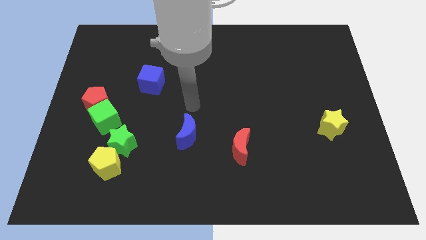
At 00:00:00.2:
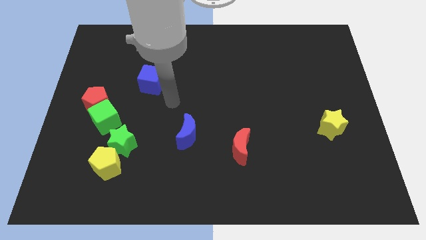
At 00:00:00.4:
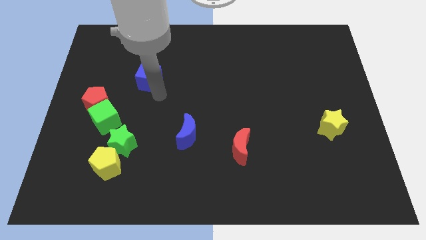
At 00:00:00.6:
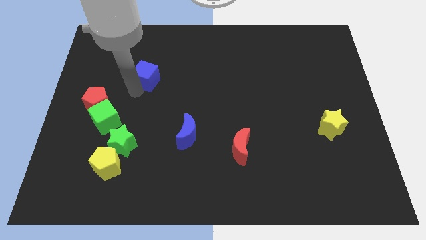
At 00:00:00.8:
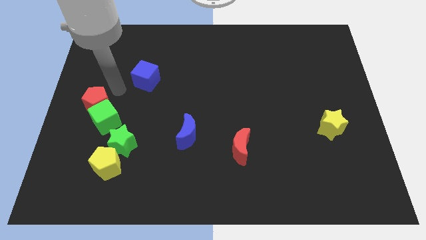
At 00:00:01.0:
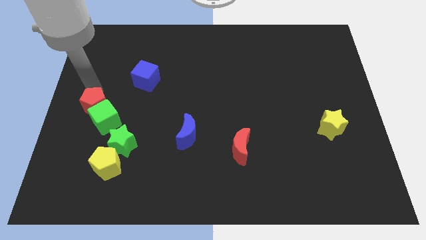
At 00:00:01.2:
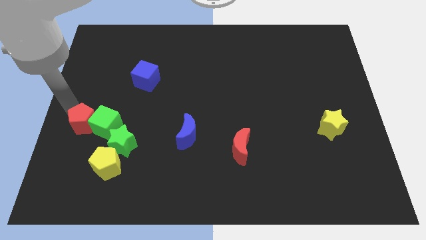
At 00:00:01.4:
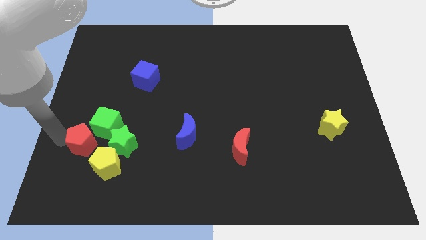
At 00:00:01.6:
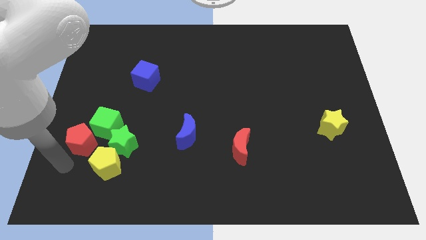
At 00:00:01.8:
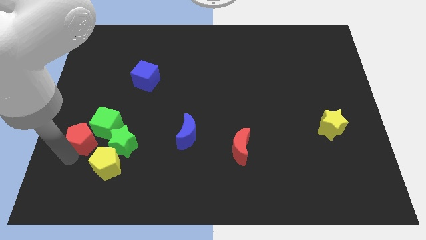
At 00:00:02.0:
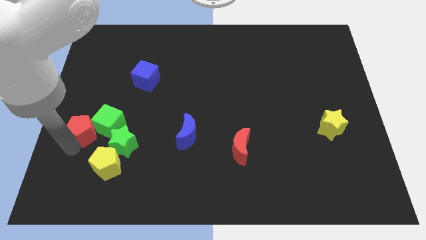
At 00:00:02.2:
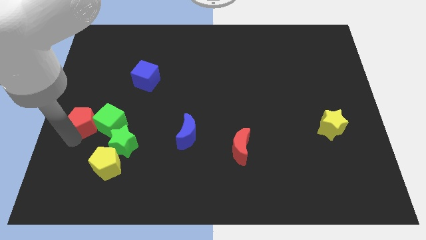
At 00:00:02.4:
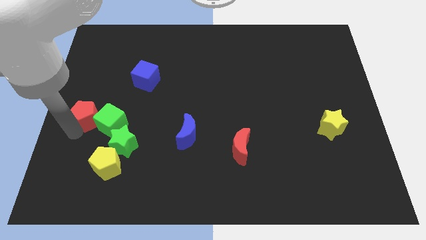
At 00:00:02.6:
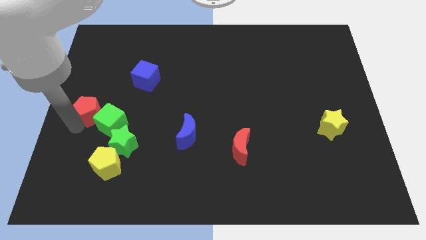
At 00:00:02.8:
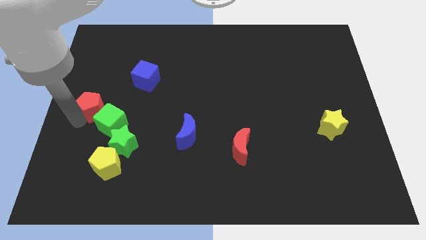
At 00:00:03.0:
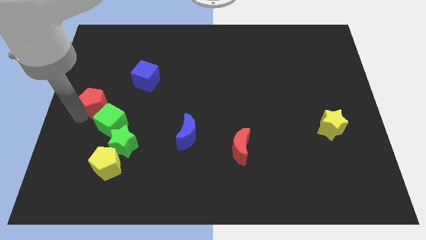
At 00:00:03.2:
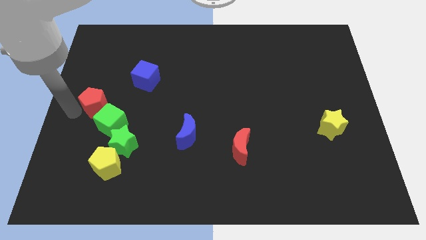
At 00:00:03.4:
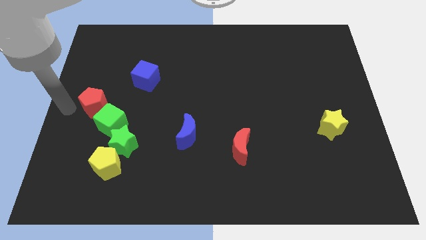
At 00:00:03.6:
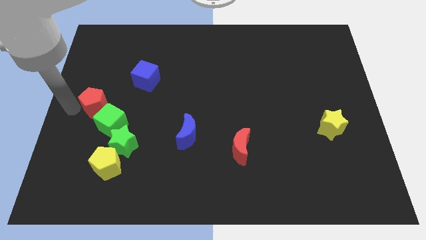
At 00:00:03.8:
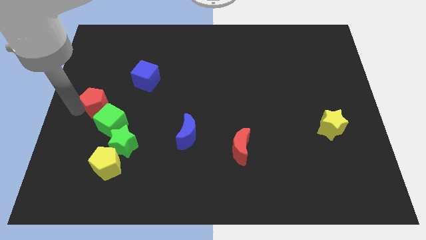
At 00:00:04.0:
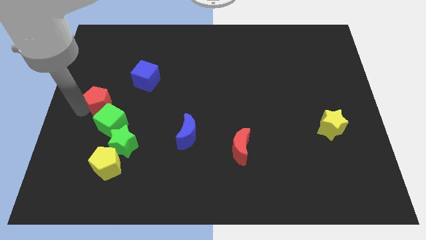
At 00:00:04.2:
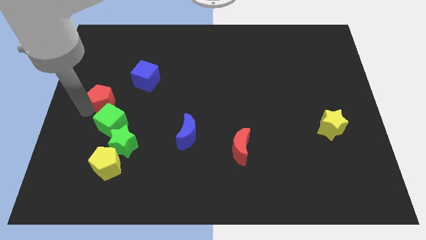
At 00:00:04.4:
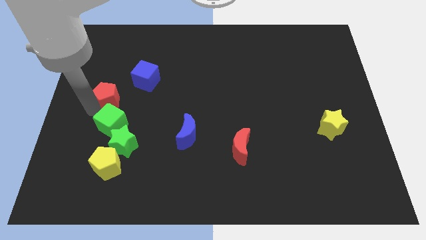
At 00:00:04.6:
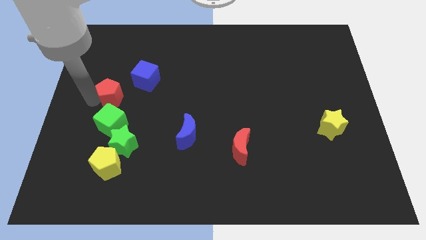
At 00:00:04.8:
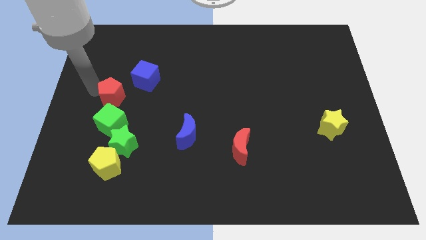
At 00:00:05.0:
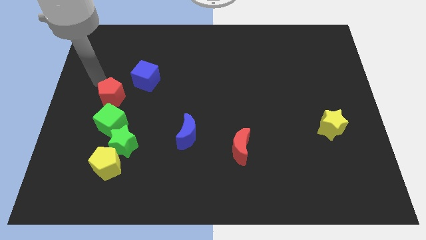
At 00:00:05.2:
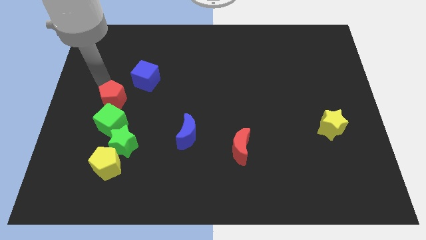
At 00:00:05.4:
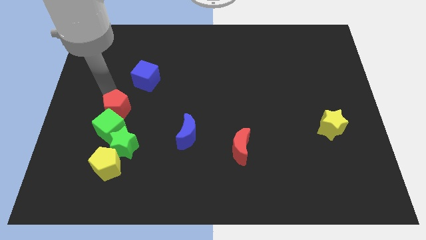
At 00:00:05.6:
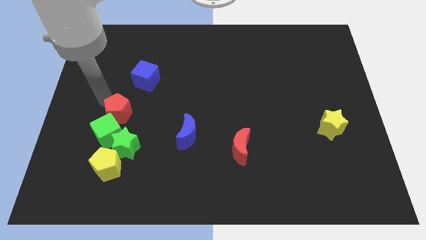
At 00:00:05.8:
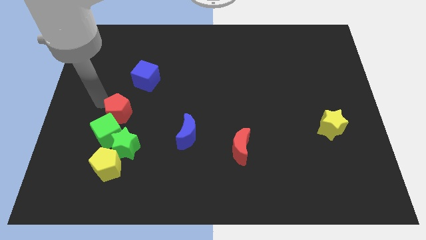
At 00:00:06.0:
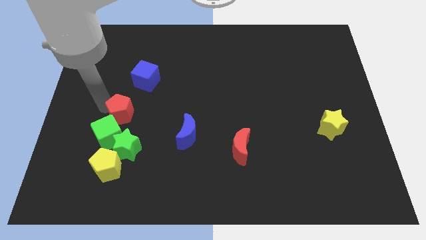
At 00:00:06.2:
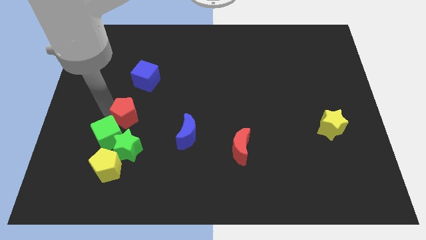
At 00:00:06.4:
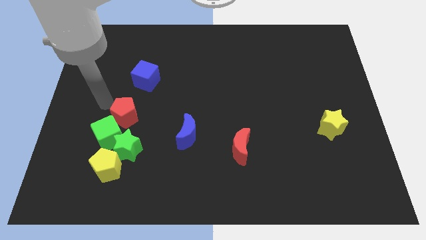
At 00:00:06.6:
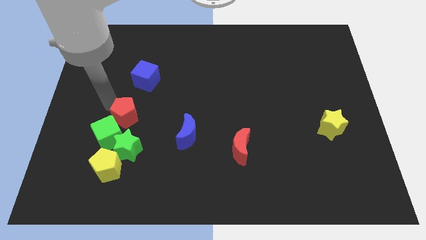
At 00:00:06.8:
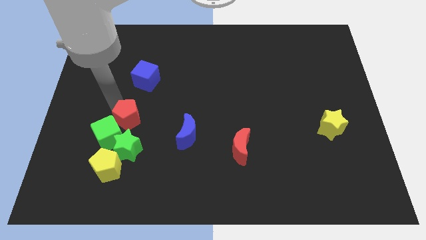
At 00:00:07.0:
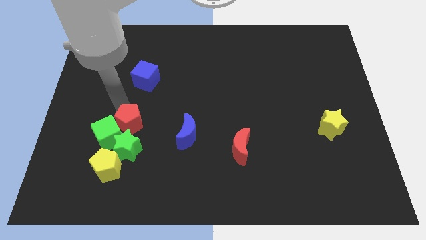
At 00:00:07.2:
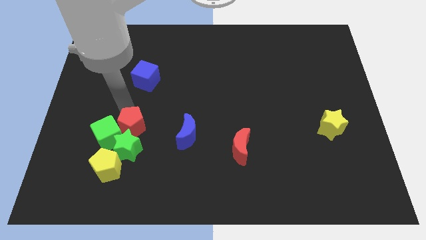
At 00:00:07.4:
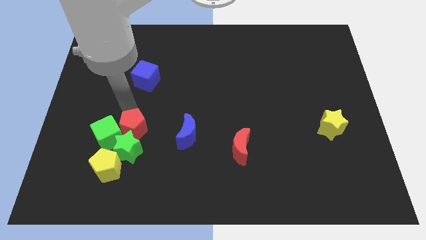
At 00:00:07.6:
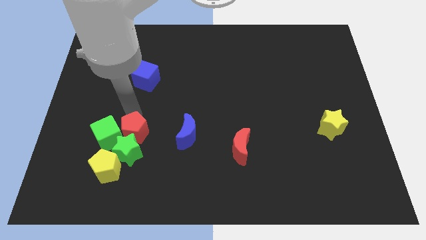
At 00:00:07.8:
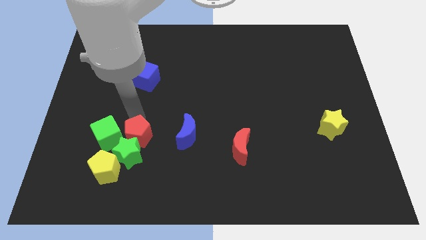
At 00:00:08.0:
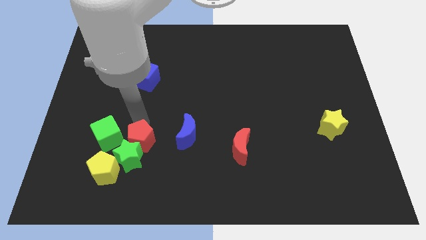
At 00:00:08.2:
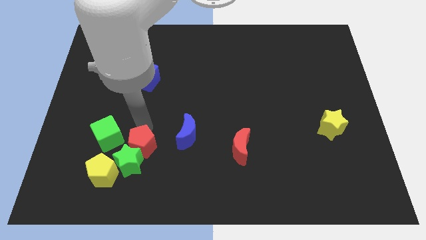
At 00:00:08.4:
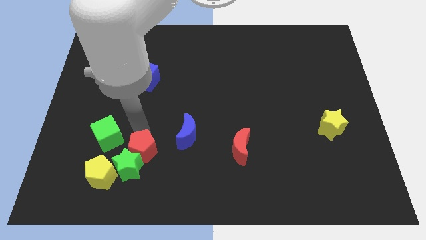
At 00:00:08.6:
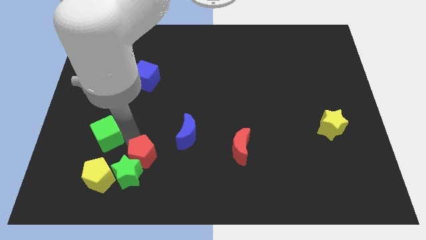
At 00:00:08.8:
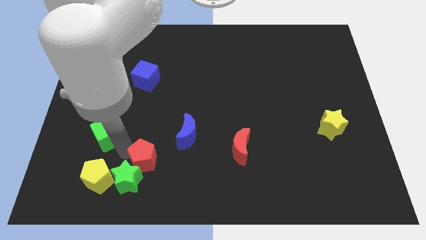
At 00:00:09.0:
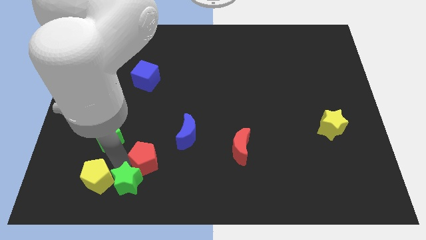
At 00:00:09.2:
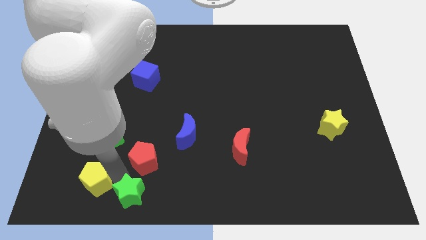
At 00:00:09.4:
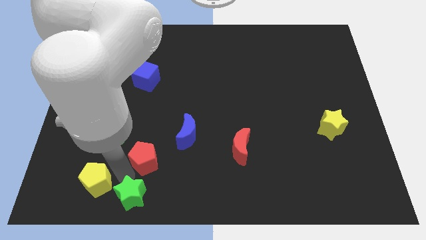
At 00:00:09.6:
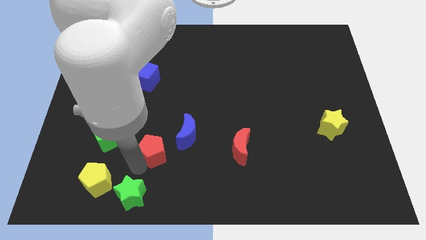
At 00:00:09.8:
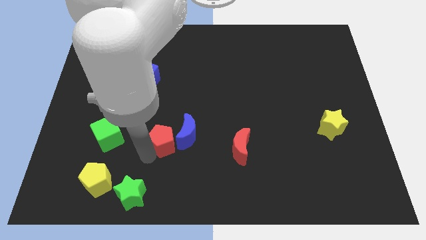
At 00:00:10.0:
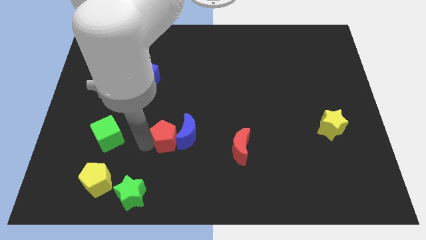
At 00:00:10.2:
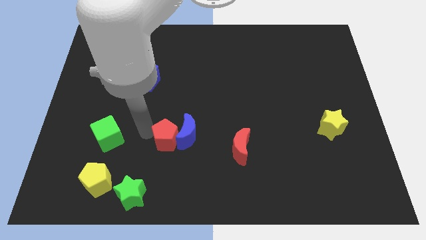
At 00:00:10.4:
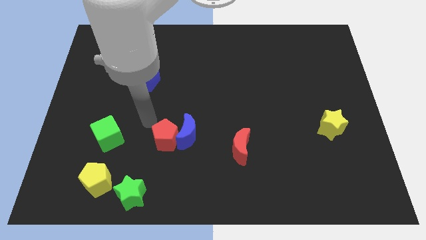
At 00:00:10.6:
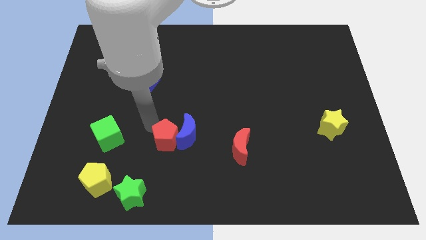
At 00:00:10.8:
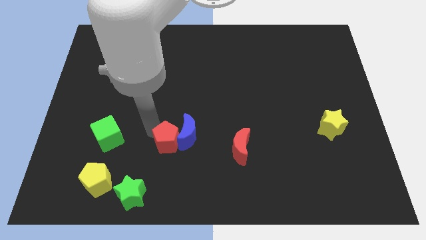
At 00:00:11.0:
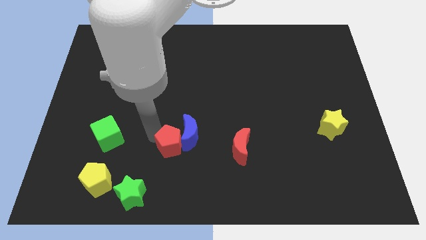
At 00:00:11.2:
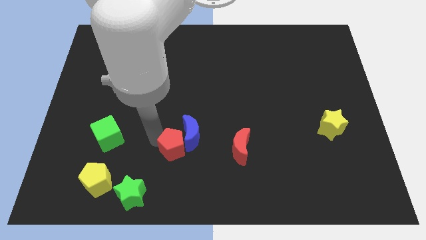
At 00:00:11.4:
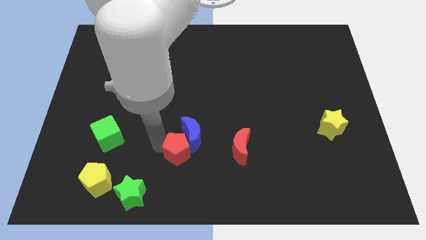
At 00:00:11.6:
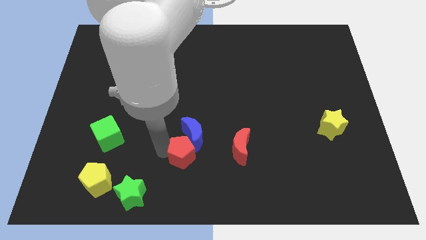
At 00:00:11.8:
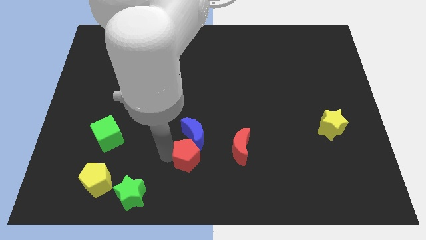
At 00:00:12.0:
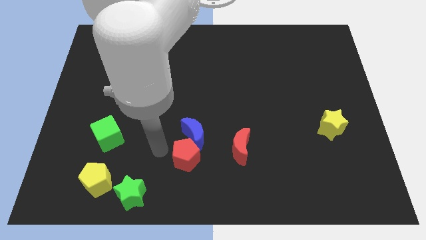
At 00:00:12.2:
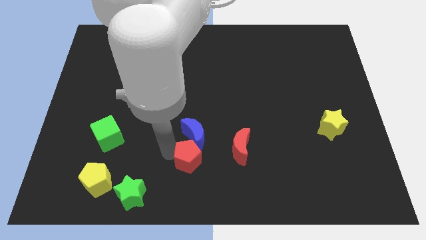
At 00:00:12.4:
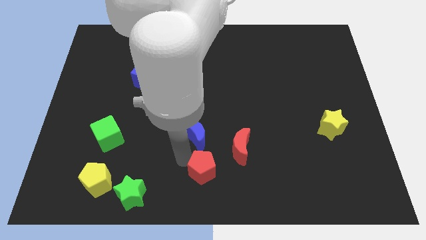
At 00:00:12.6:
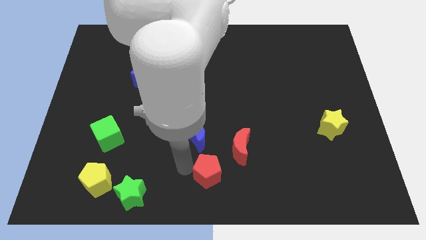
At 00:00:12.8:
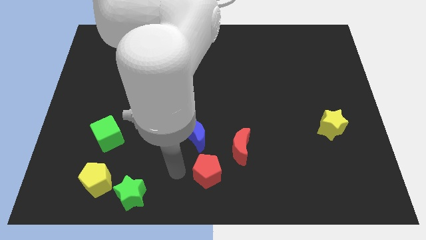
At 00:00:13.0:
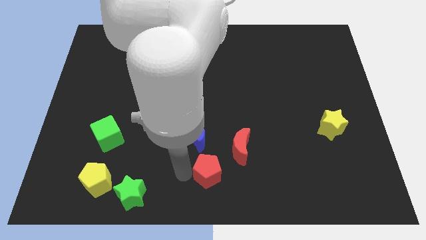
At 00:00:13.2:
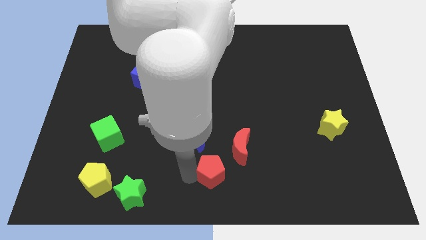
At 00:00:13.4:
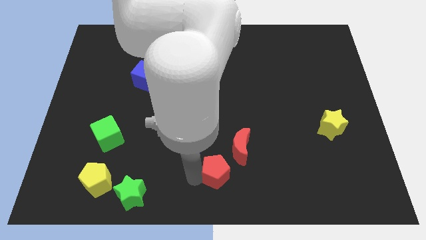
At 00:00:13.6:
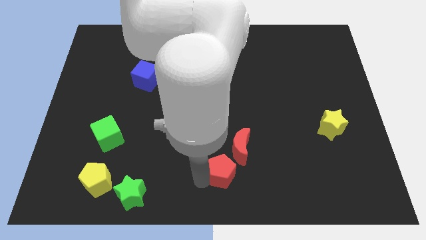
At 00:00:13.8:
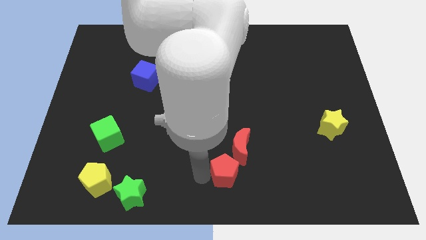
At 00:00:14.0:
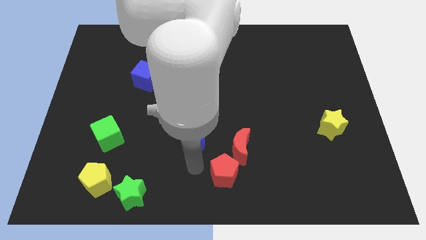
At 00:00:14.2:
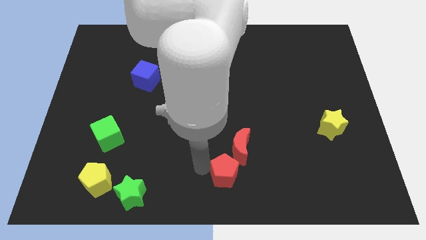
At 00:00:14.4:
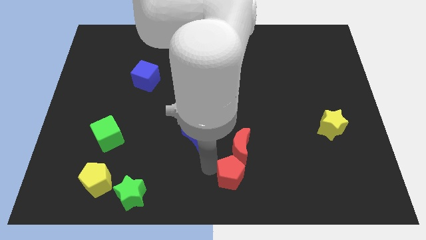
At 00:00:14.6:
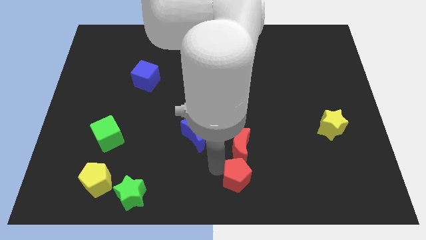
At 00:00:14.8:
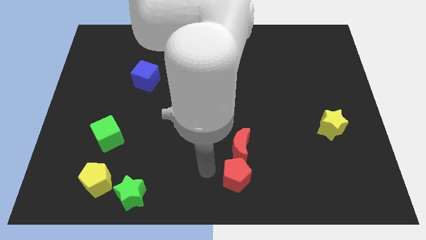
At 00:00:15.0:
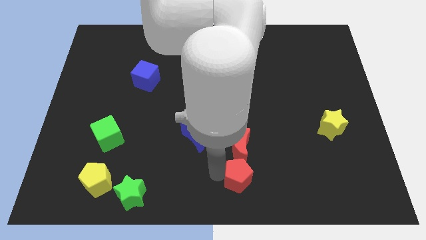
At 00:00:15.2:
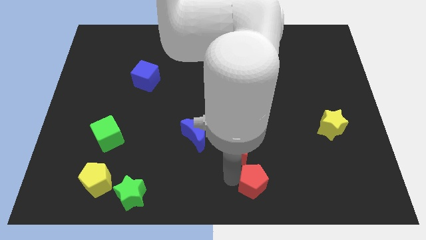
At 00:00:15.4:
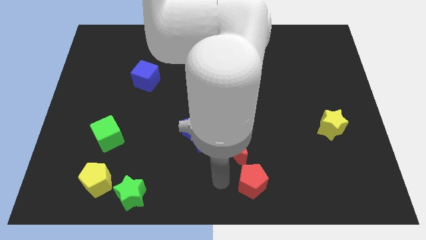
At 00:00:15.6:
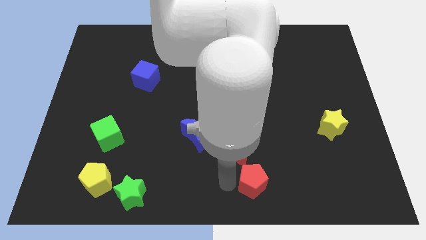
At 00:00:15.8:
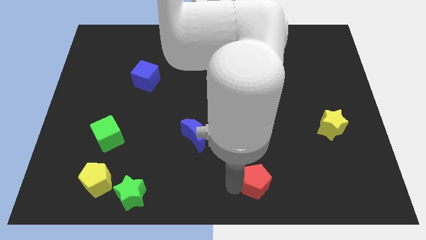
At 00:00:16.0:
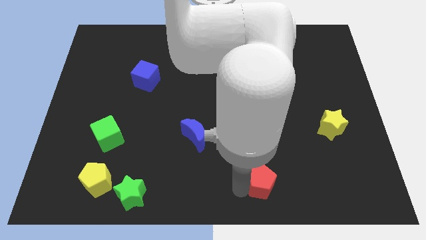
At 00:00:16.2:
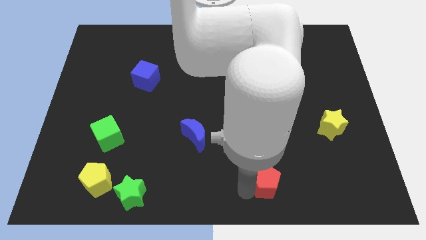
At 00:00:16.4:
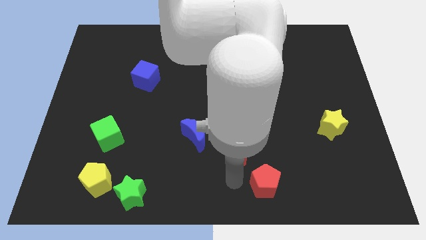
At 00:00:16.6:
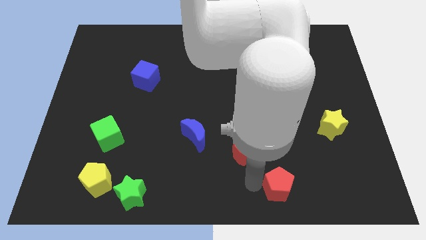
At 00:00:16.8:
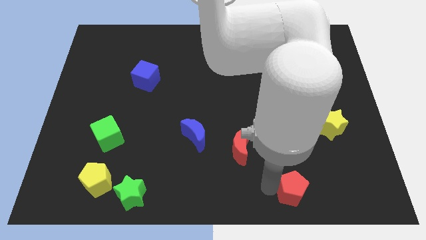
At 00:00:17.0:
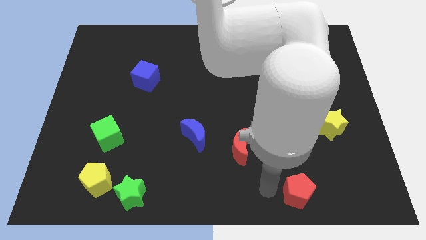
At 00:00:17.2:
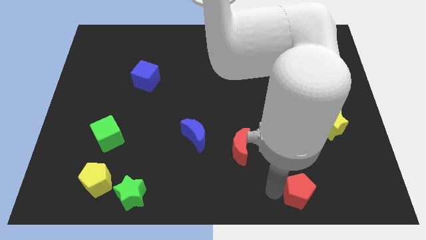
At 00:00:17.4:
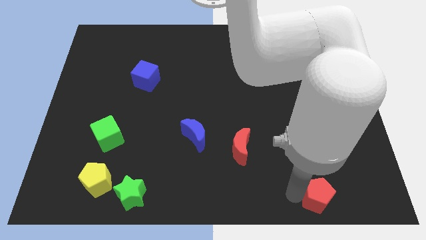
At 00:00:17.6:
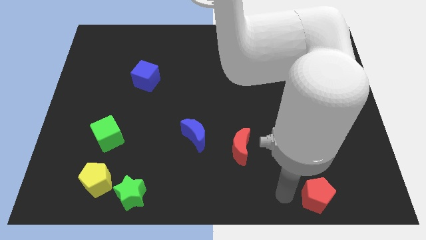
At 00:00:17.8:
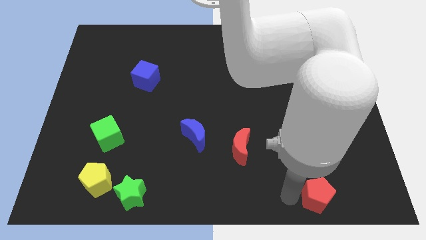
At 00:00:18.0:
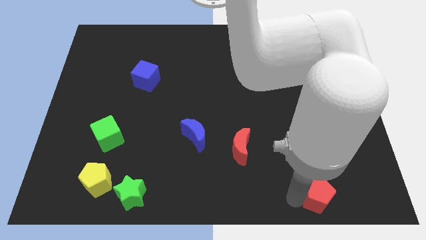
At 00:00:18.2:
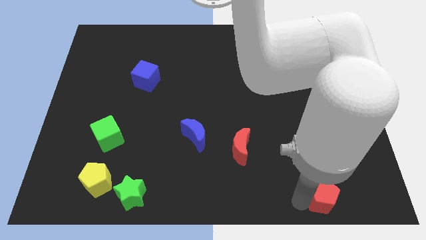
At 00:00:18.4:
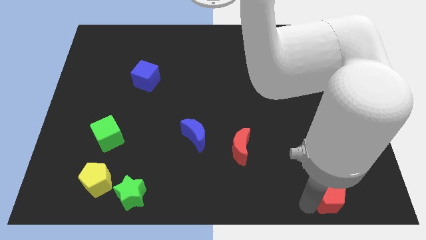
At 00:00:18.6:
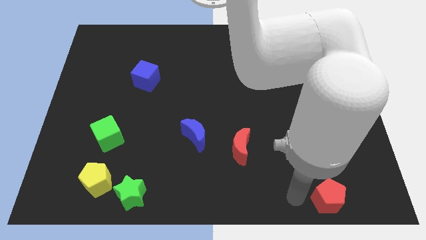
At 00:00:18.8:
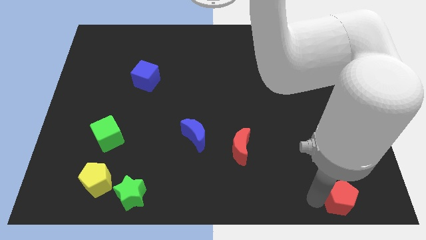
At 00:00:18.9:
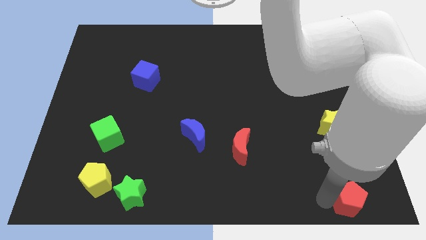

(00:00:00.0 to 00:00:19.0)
slide the red pentagon to the bottom right of the board
